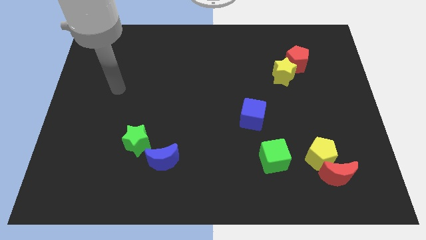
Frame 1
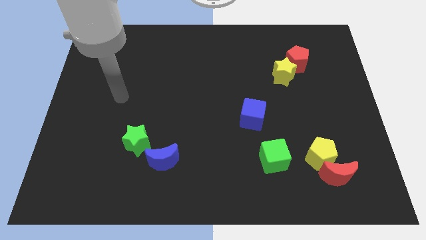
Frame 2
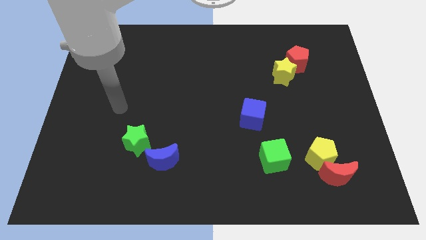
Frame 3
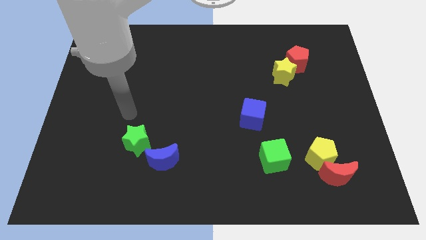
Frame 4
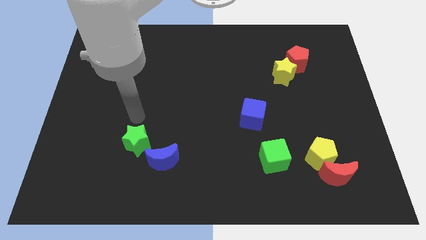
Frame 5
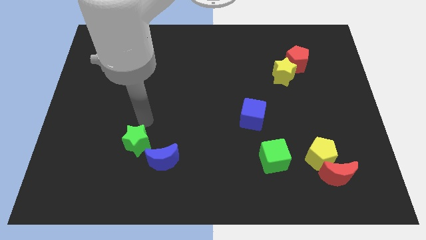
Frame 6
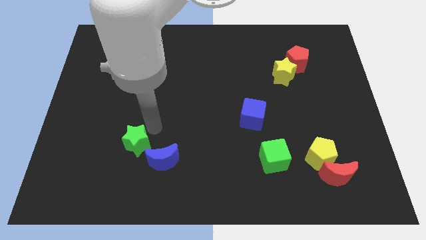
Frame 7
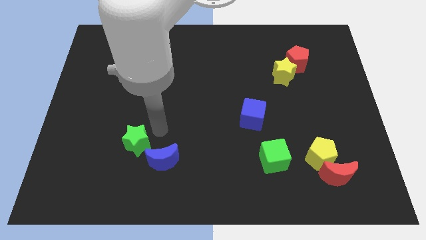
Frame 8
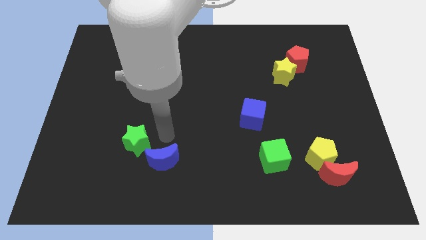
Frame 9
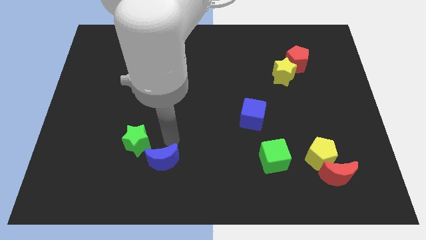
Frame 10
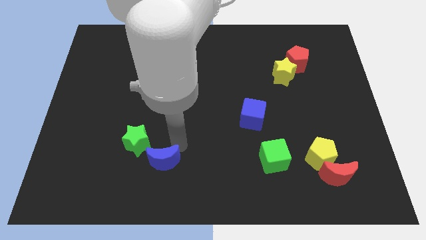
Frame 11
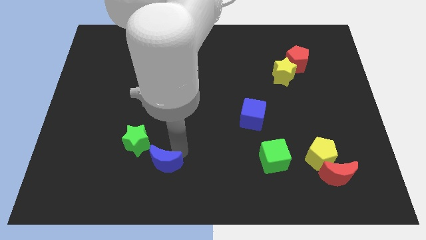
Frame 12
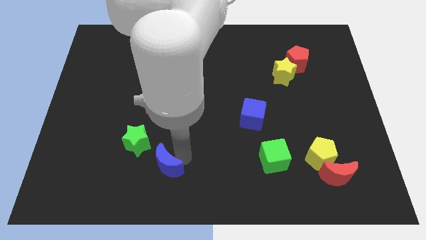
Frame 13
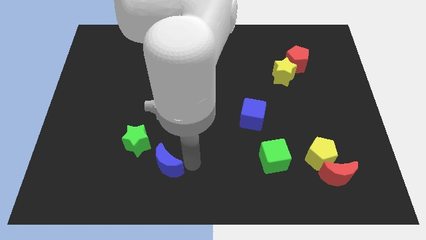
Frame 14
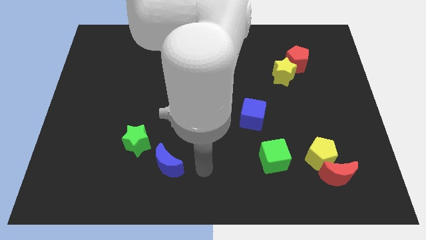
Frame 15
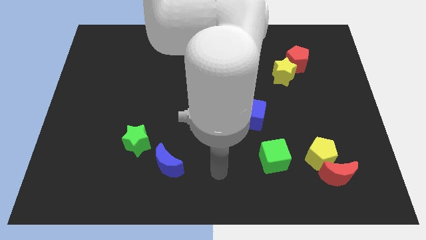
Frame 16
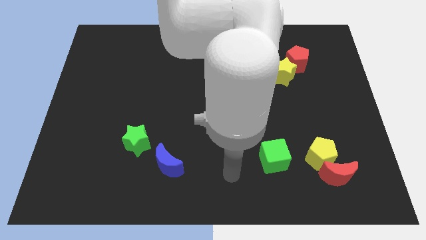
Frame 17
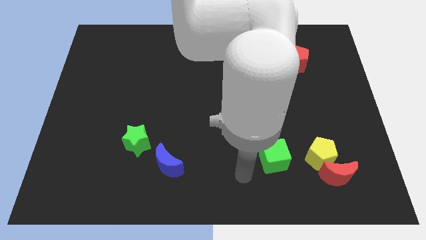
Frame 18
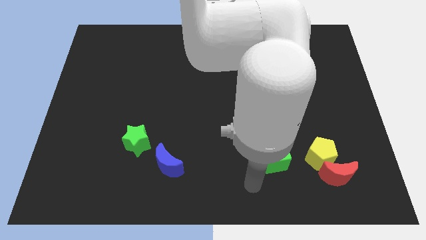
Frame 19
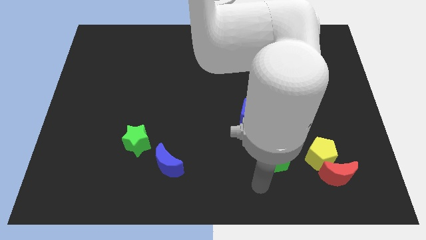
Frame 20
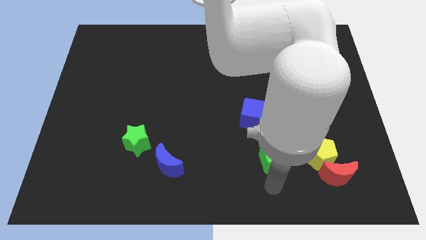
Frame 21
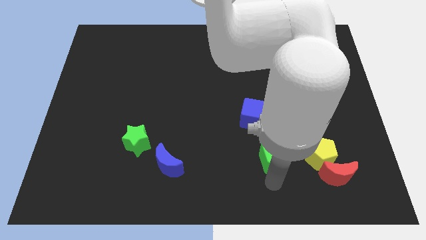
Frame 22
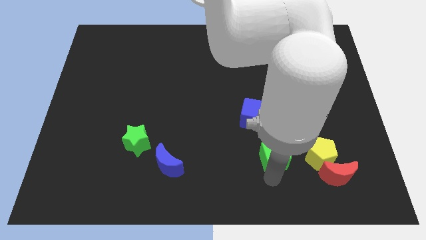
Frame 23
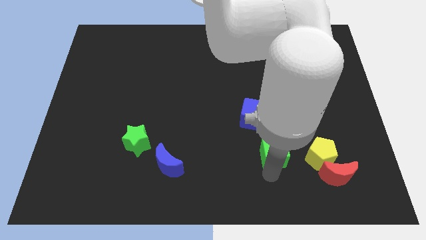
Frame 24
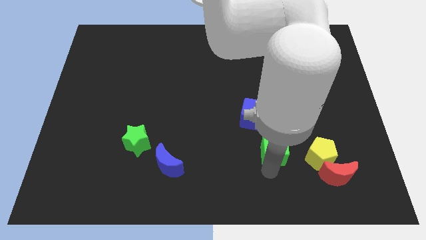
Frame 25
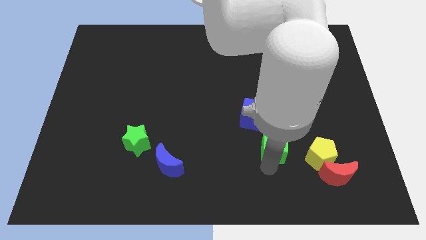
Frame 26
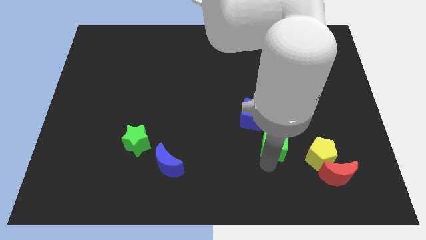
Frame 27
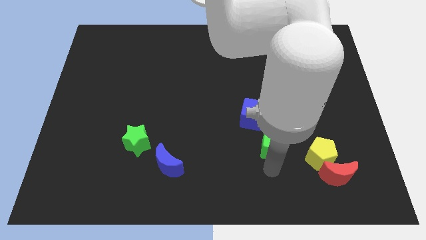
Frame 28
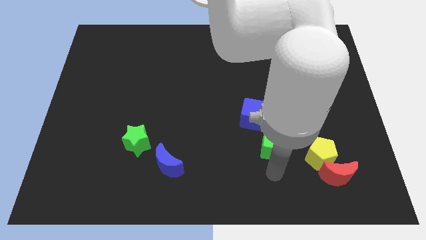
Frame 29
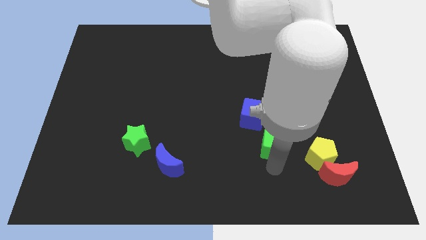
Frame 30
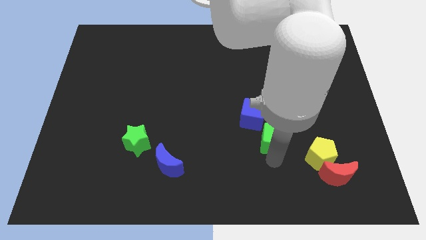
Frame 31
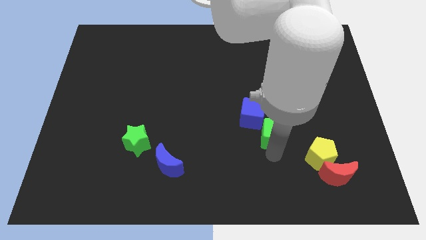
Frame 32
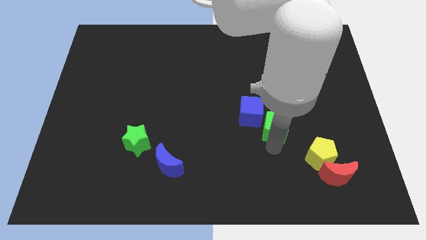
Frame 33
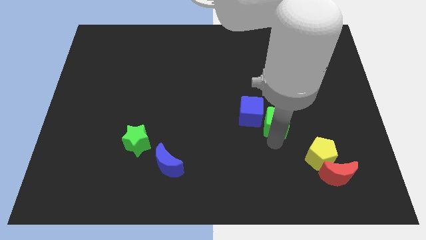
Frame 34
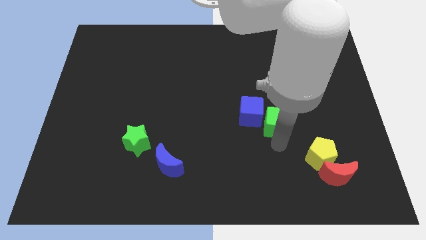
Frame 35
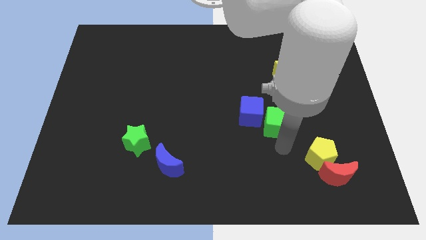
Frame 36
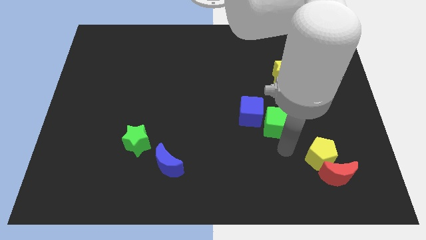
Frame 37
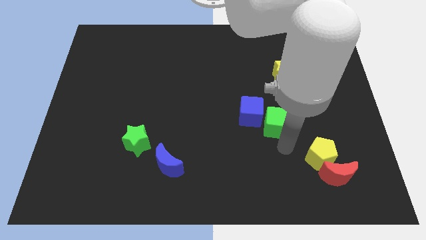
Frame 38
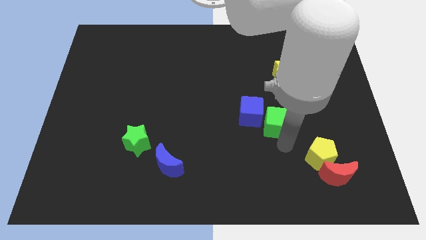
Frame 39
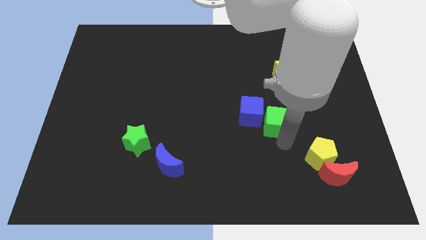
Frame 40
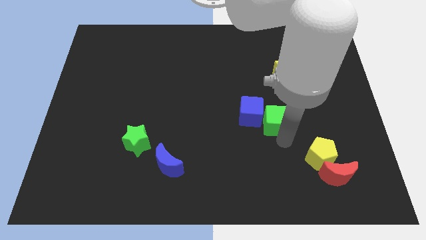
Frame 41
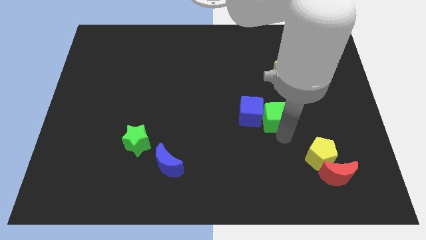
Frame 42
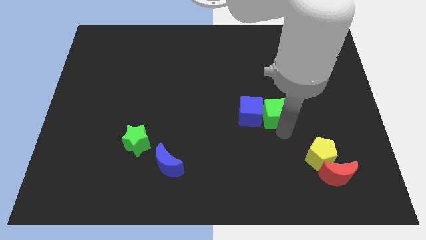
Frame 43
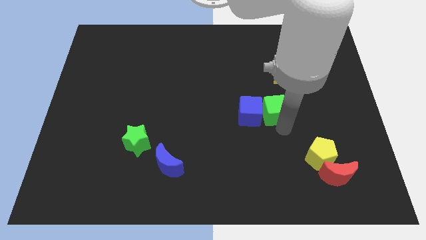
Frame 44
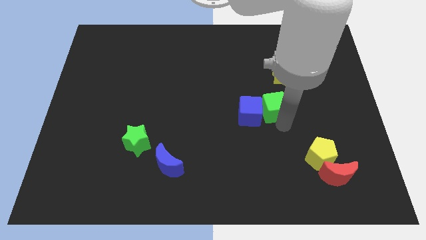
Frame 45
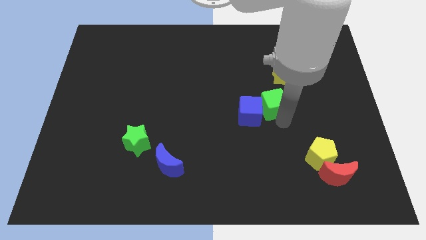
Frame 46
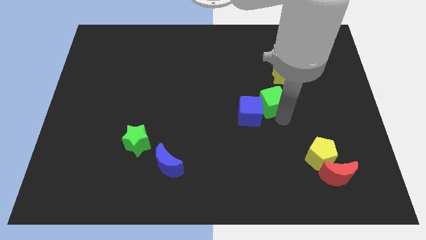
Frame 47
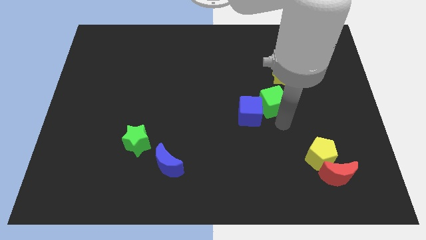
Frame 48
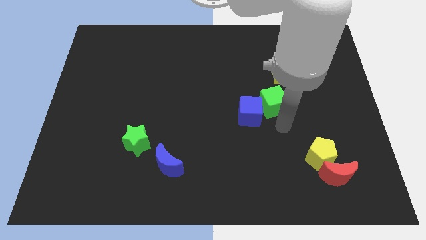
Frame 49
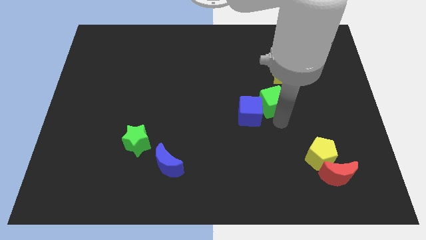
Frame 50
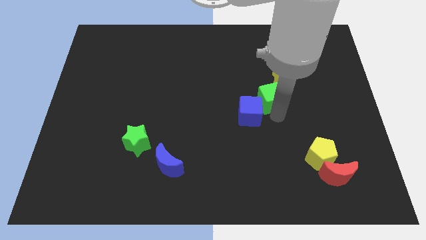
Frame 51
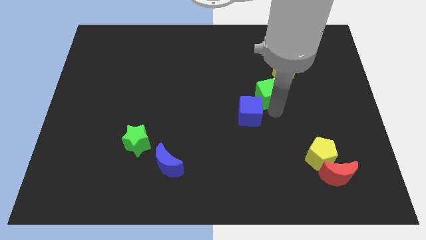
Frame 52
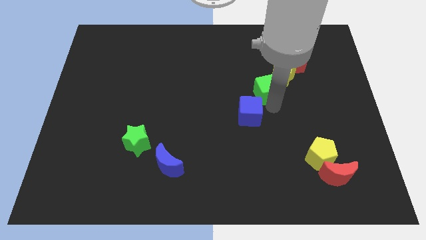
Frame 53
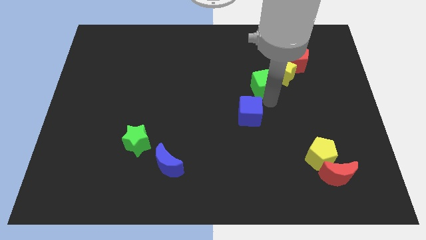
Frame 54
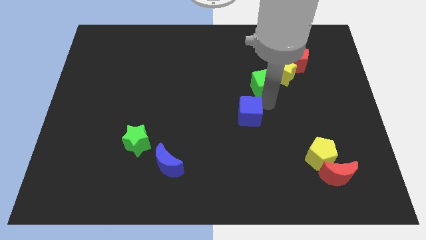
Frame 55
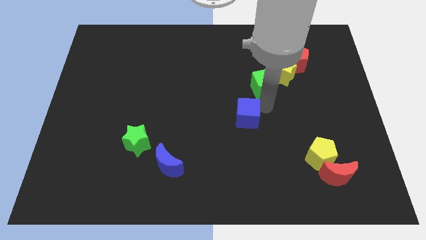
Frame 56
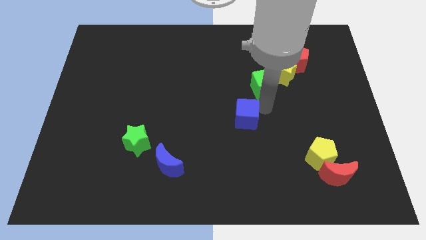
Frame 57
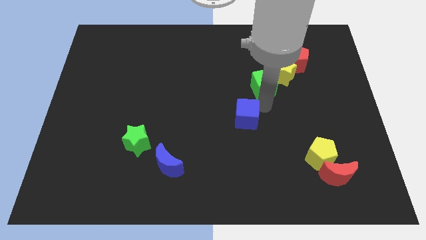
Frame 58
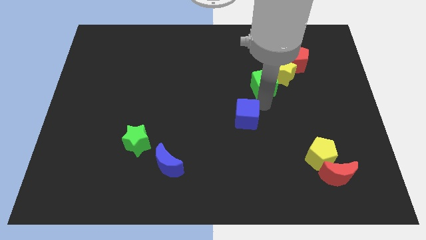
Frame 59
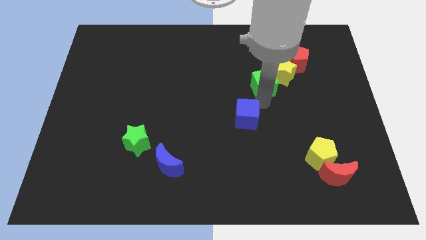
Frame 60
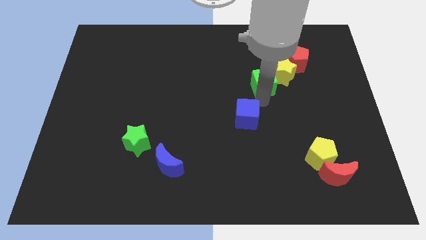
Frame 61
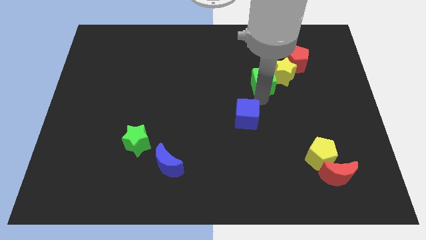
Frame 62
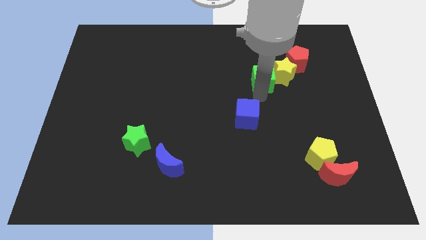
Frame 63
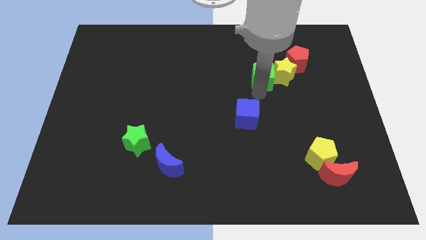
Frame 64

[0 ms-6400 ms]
push the green cube diagonally up and to the left of the yellow star

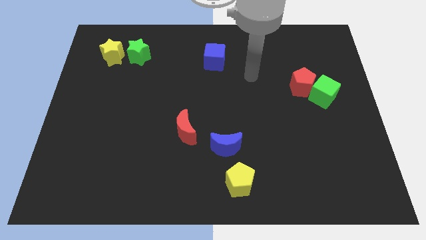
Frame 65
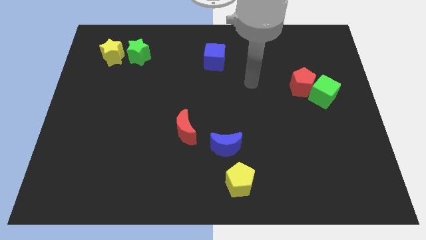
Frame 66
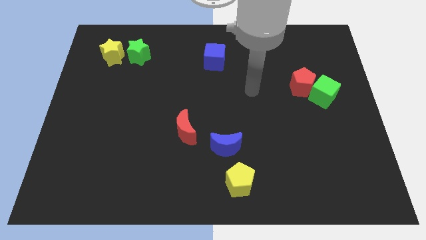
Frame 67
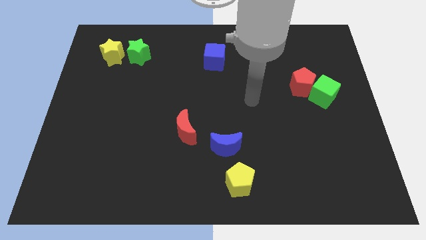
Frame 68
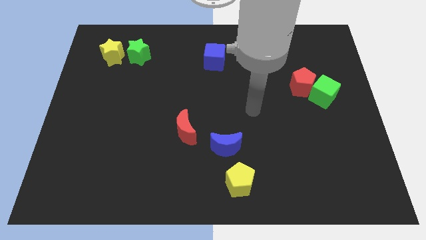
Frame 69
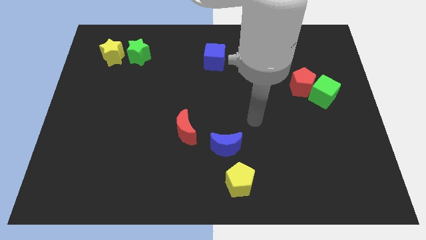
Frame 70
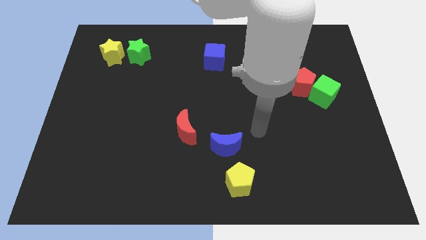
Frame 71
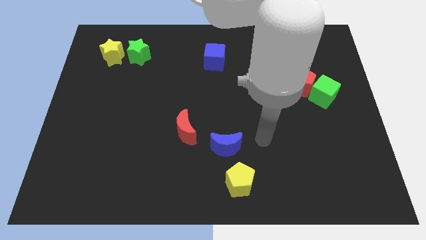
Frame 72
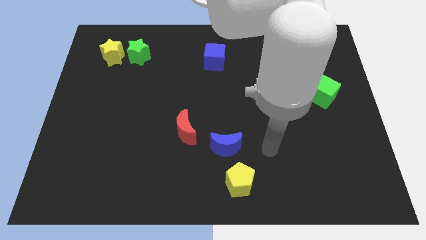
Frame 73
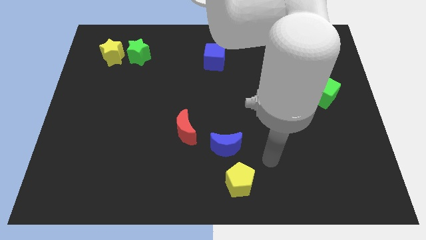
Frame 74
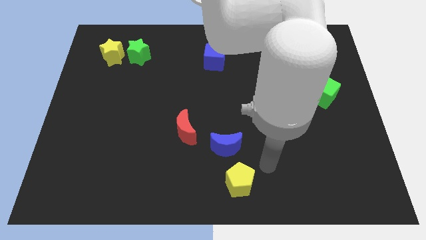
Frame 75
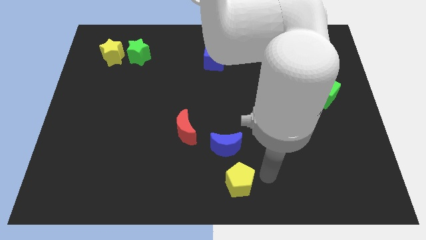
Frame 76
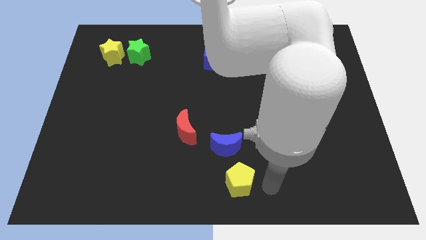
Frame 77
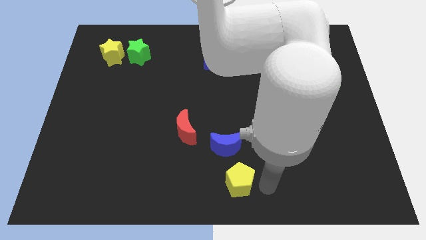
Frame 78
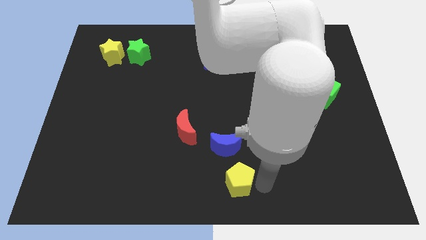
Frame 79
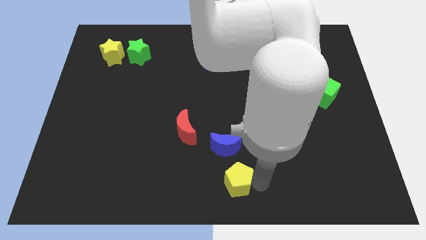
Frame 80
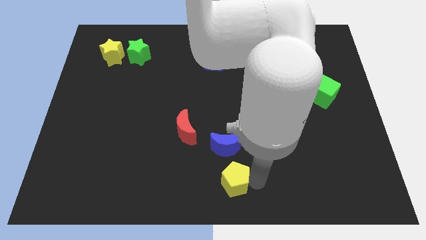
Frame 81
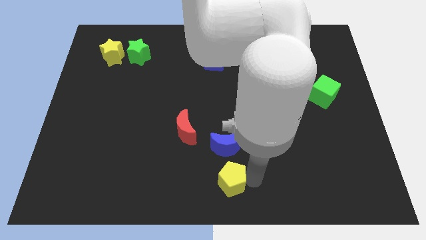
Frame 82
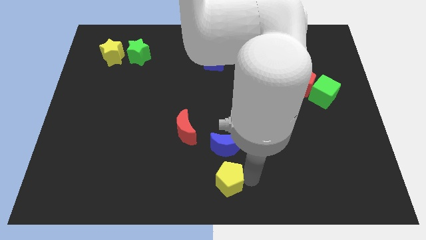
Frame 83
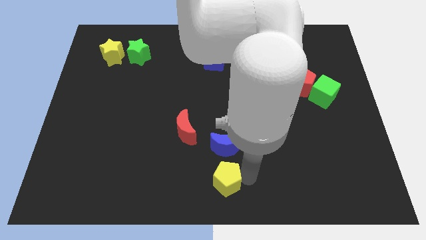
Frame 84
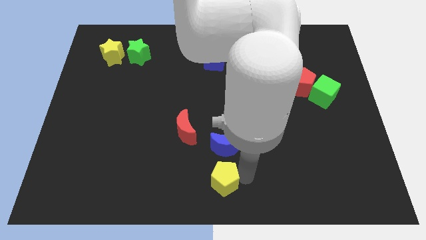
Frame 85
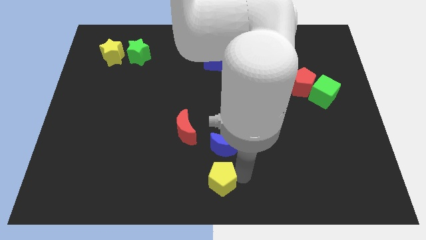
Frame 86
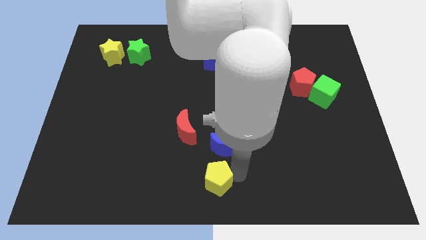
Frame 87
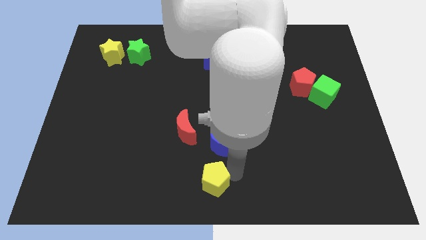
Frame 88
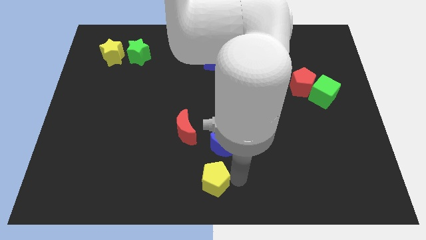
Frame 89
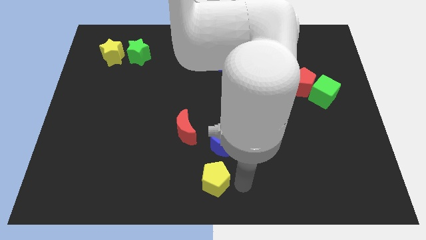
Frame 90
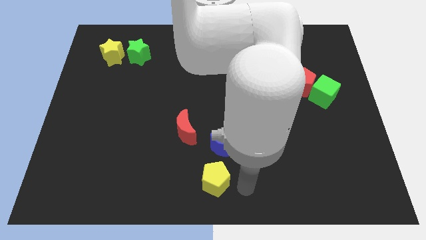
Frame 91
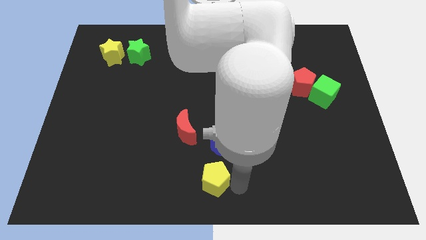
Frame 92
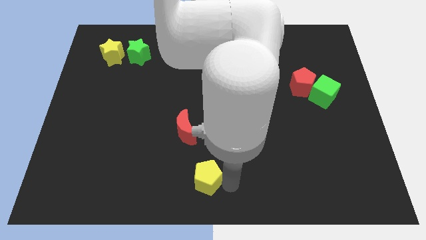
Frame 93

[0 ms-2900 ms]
push the yellow pentagon below the red moon
